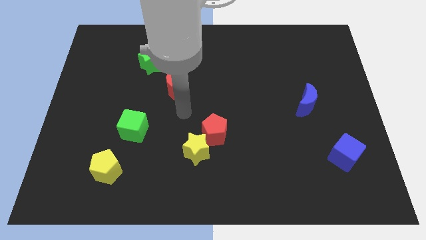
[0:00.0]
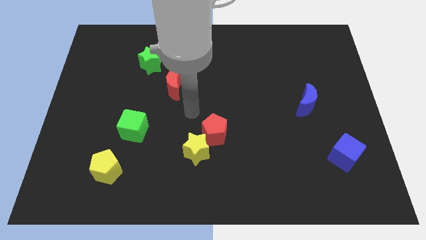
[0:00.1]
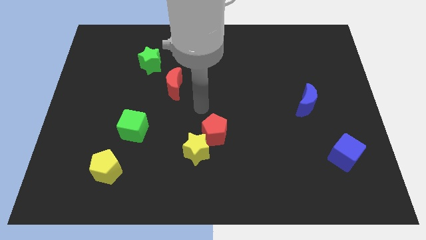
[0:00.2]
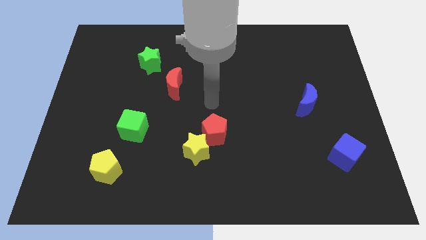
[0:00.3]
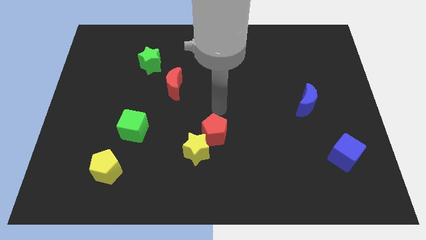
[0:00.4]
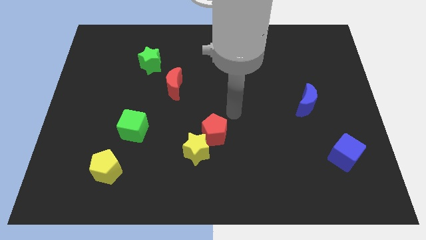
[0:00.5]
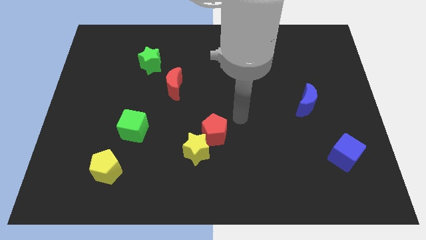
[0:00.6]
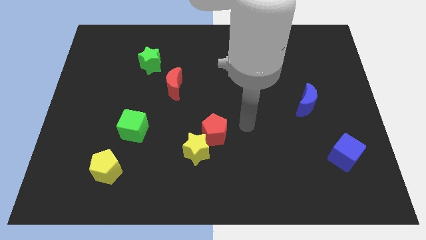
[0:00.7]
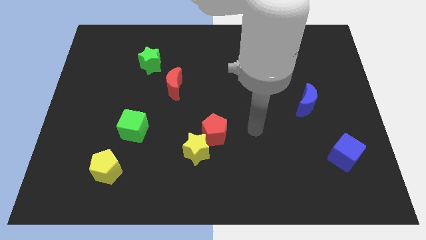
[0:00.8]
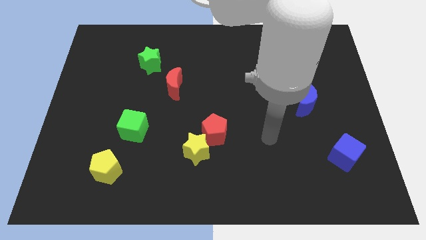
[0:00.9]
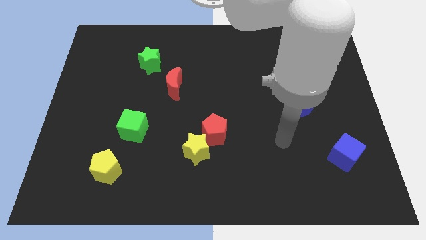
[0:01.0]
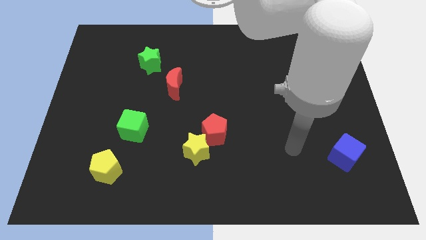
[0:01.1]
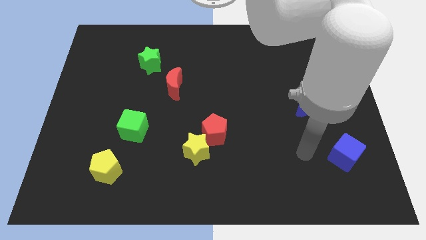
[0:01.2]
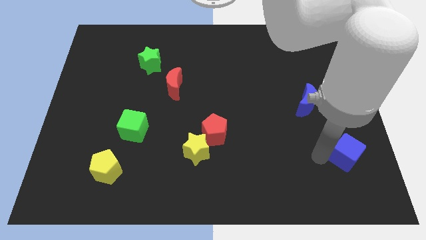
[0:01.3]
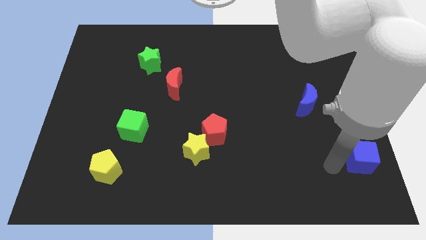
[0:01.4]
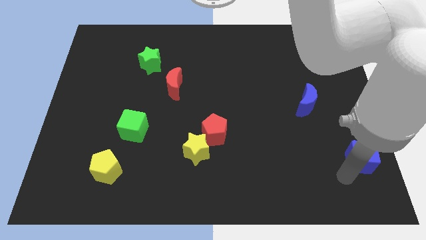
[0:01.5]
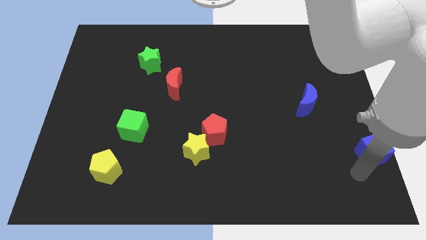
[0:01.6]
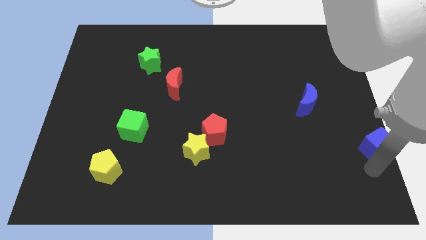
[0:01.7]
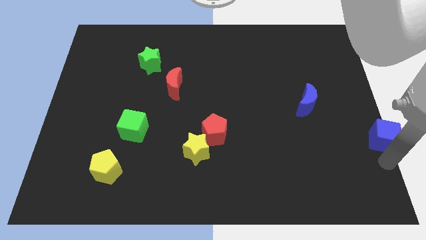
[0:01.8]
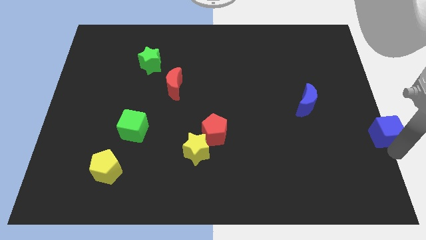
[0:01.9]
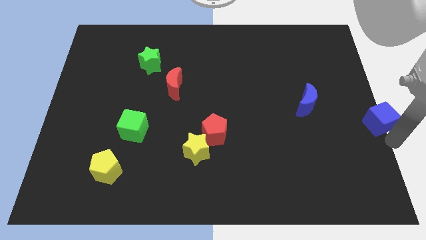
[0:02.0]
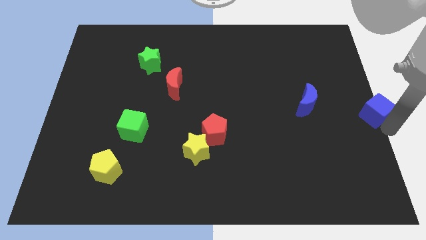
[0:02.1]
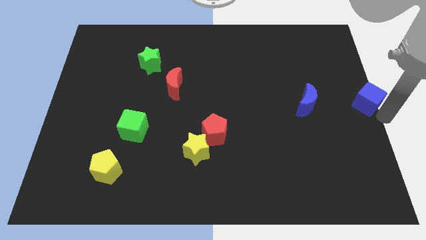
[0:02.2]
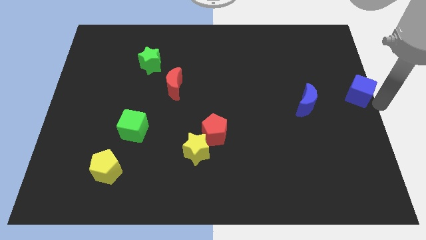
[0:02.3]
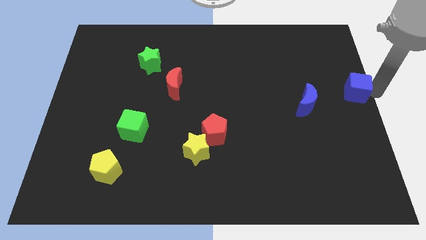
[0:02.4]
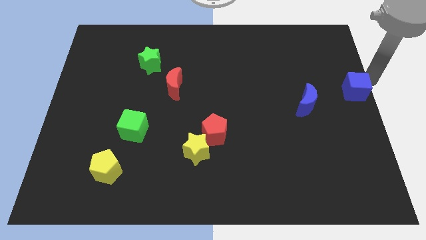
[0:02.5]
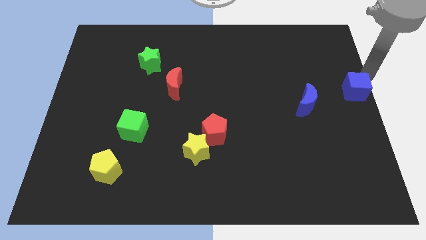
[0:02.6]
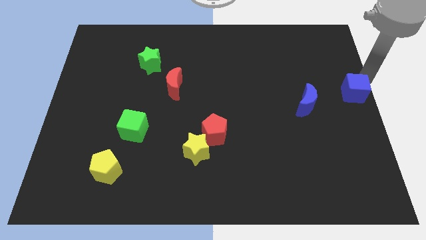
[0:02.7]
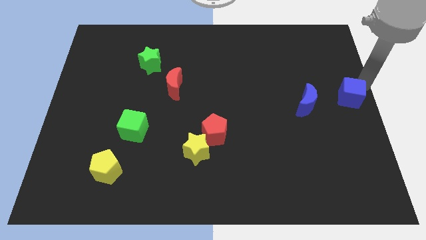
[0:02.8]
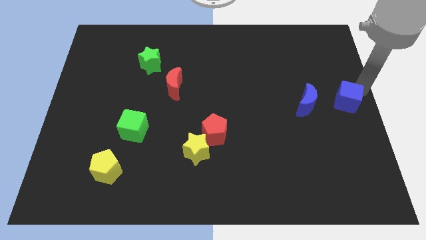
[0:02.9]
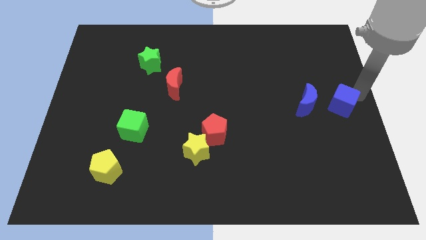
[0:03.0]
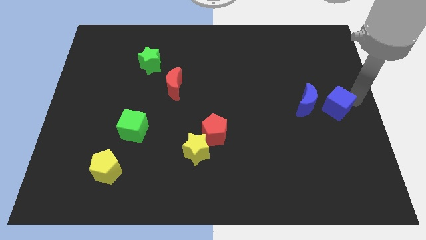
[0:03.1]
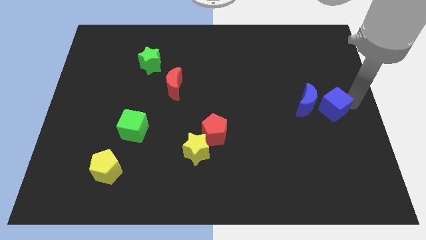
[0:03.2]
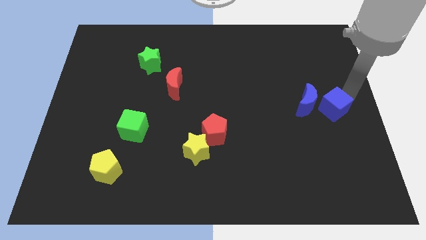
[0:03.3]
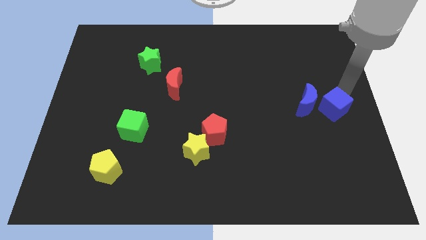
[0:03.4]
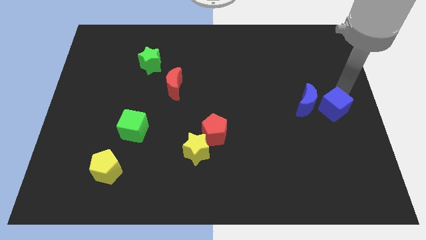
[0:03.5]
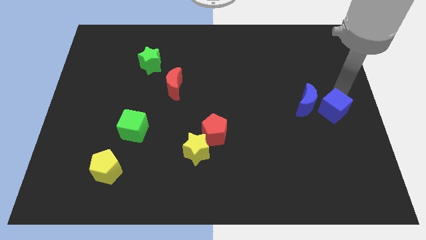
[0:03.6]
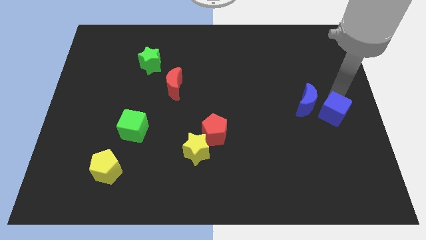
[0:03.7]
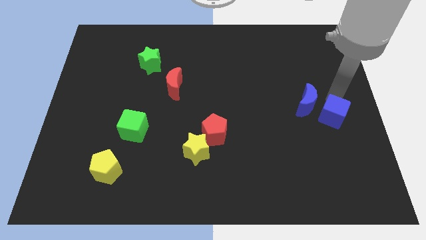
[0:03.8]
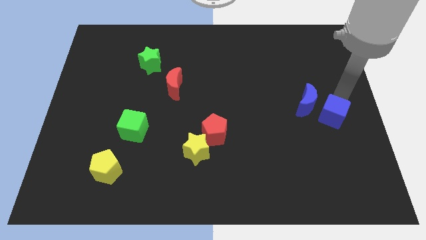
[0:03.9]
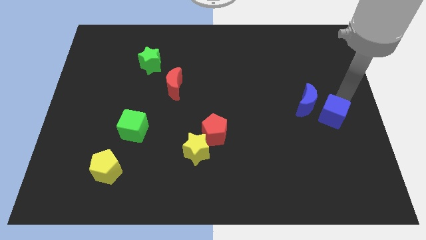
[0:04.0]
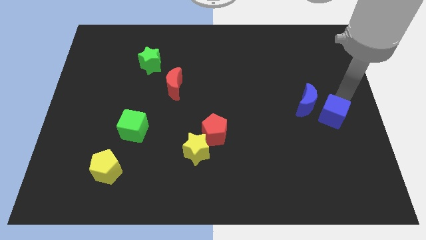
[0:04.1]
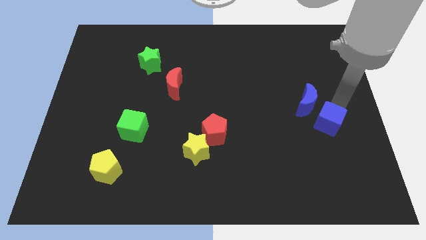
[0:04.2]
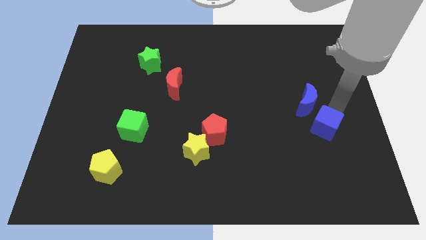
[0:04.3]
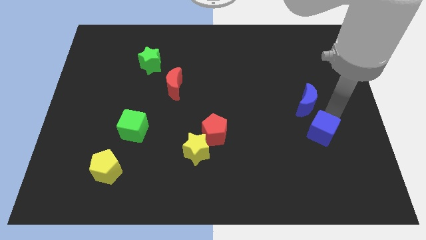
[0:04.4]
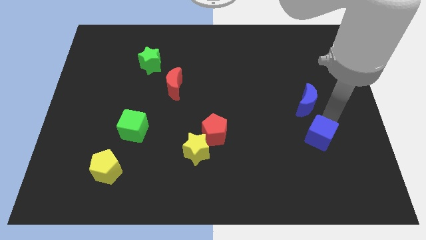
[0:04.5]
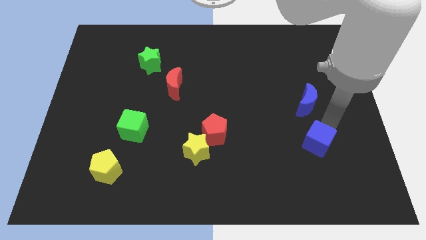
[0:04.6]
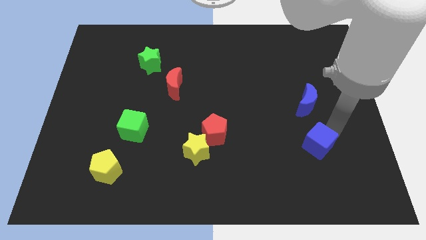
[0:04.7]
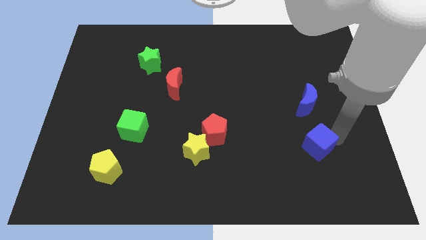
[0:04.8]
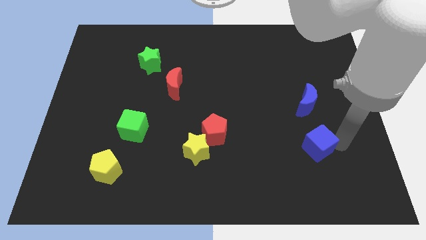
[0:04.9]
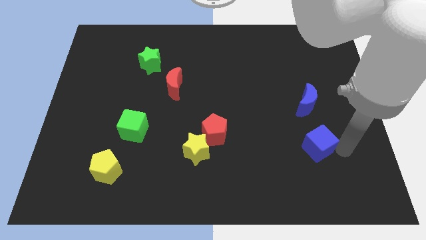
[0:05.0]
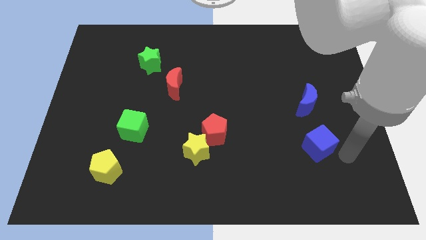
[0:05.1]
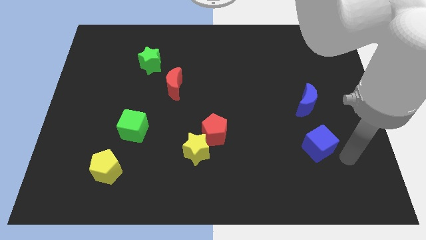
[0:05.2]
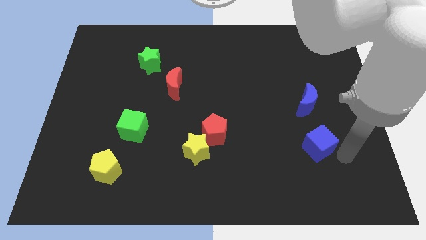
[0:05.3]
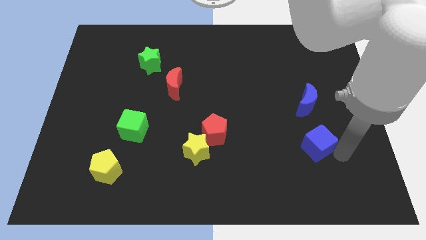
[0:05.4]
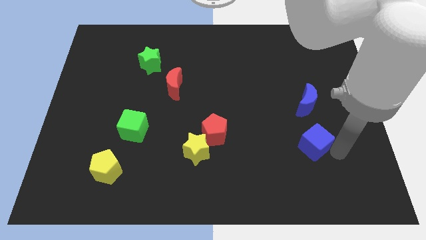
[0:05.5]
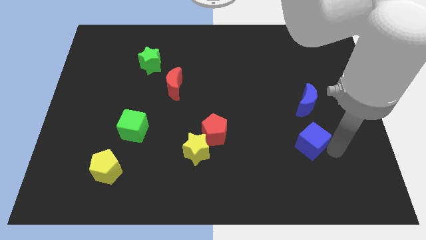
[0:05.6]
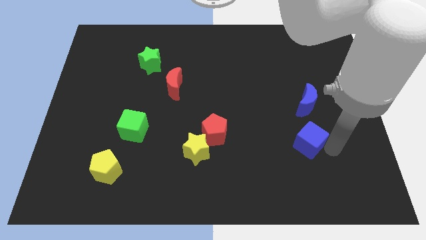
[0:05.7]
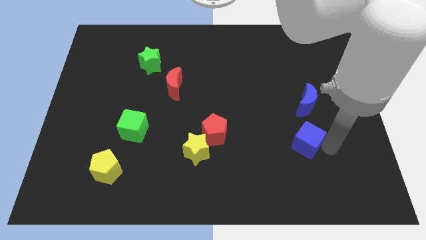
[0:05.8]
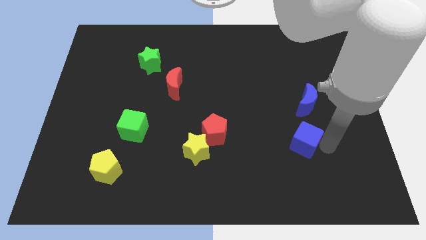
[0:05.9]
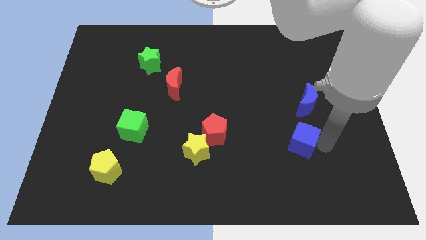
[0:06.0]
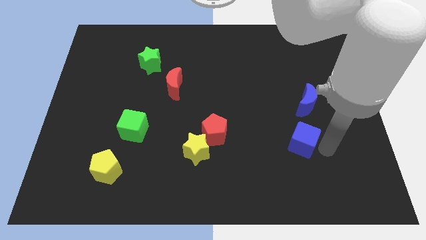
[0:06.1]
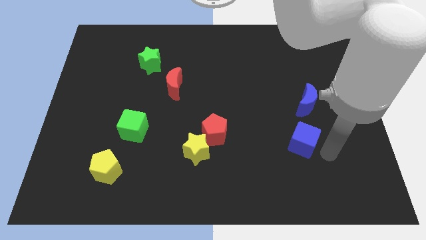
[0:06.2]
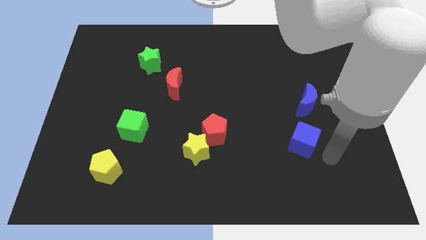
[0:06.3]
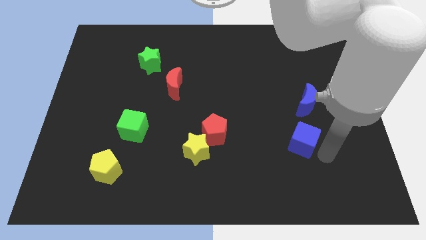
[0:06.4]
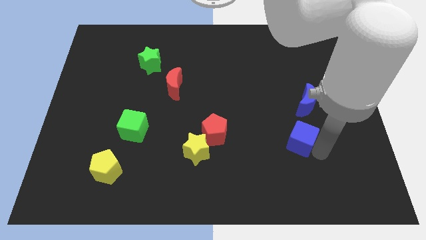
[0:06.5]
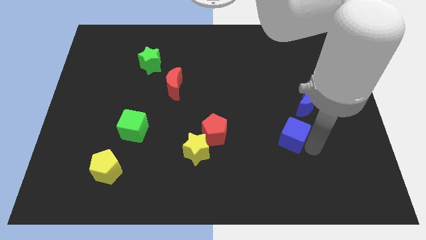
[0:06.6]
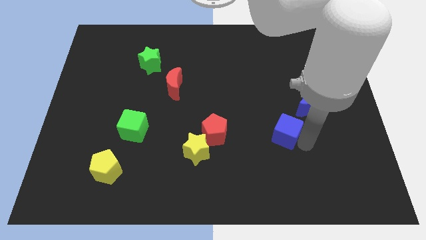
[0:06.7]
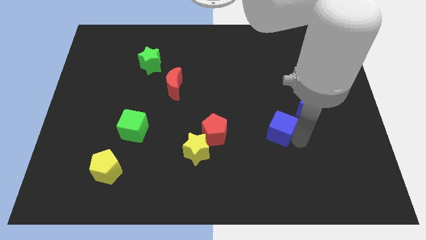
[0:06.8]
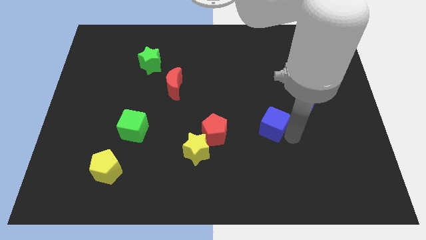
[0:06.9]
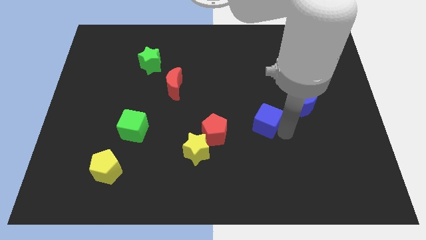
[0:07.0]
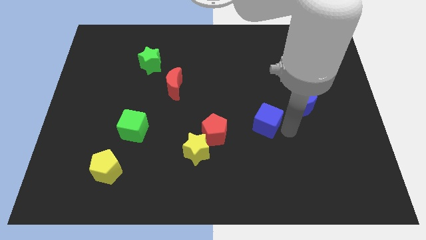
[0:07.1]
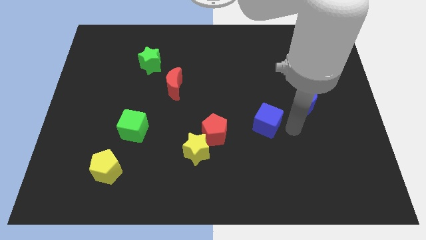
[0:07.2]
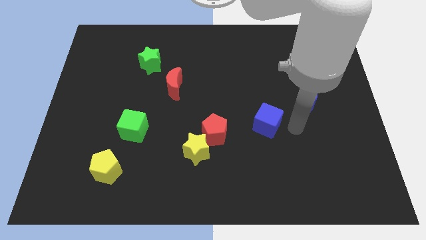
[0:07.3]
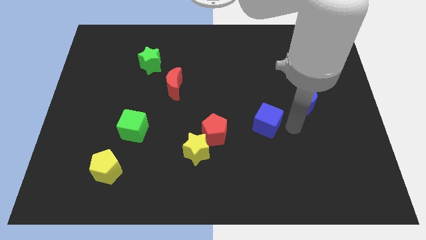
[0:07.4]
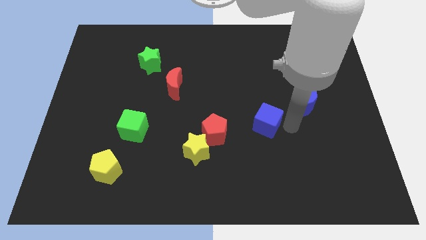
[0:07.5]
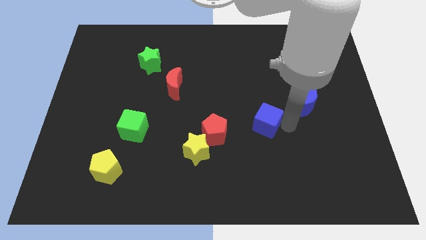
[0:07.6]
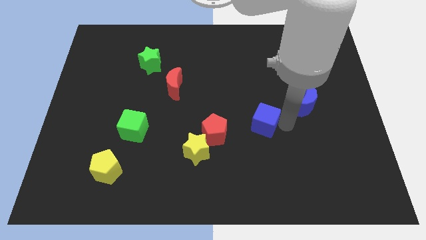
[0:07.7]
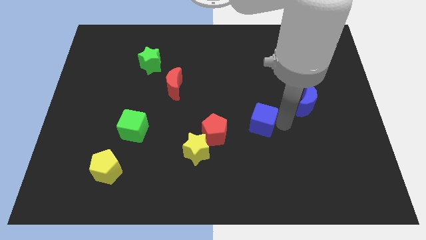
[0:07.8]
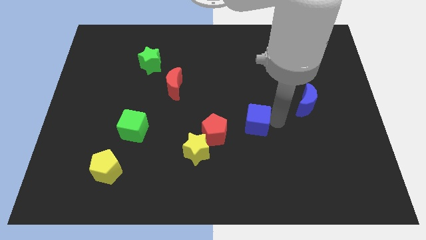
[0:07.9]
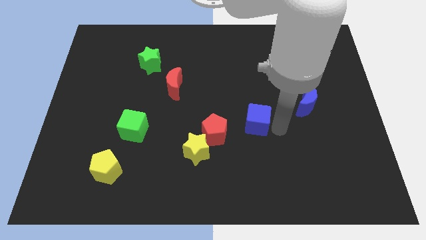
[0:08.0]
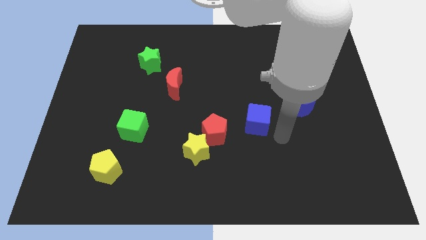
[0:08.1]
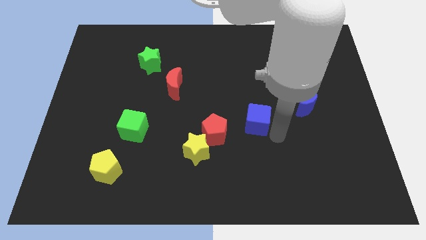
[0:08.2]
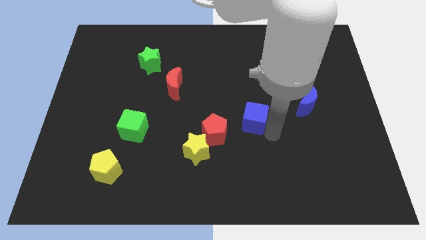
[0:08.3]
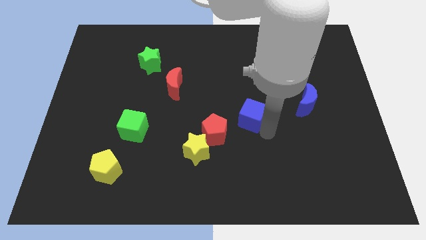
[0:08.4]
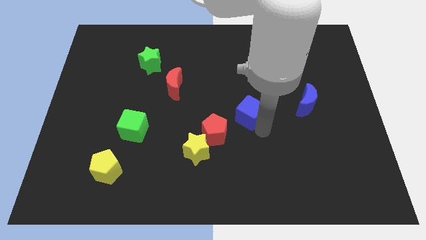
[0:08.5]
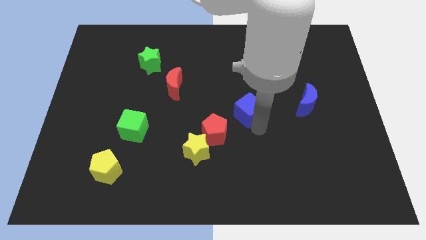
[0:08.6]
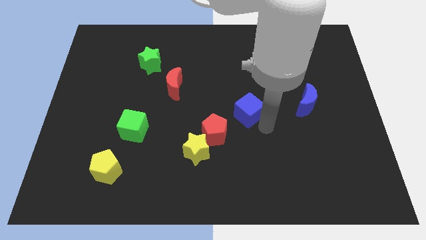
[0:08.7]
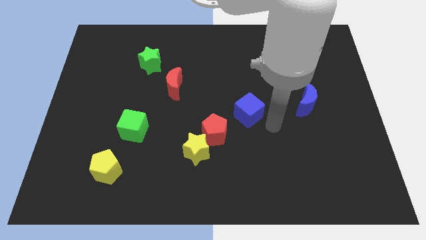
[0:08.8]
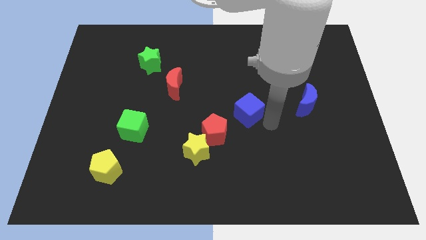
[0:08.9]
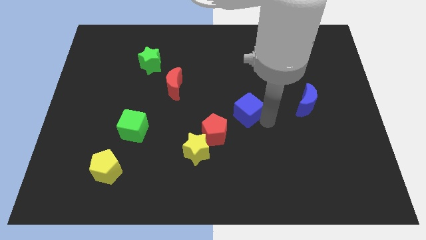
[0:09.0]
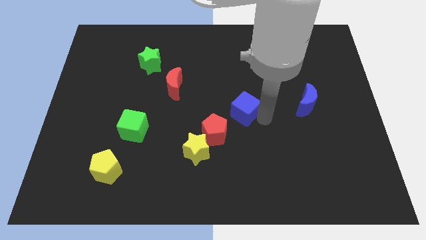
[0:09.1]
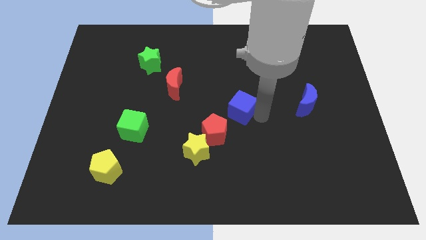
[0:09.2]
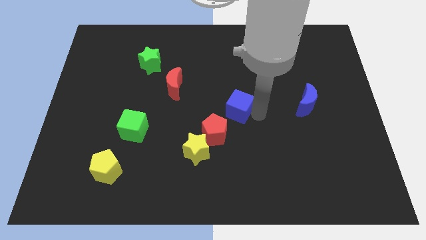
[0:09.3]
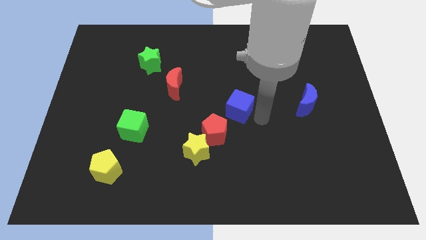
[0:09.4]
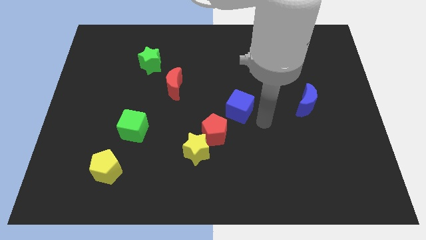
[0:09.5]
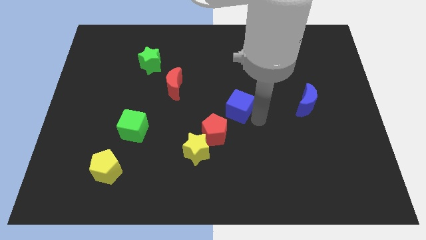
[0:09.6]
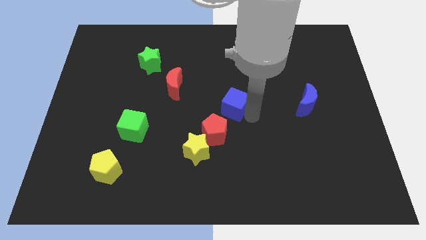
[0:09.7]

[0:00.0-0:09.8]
slide the blue cube above the red pentagon
